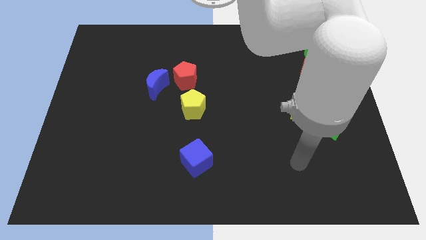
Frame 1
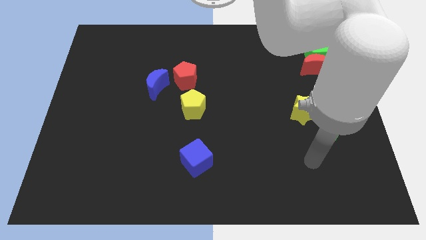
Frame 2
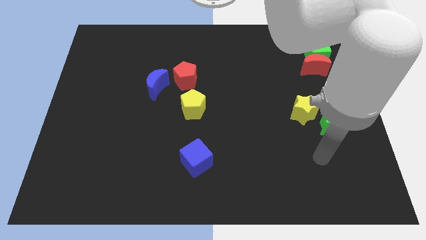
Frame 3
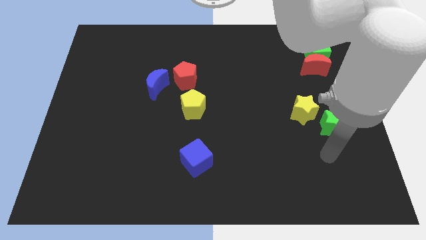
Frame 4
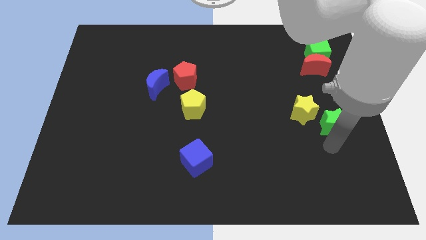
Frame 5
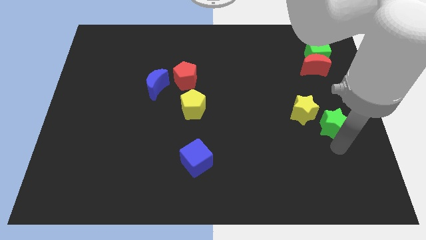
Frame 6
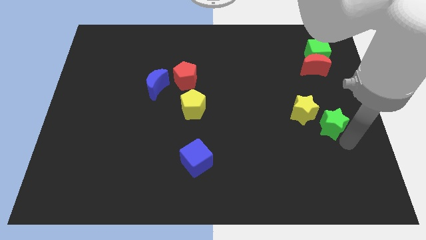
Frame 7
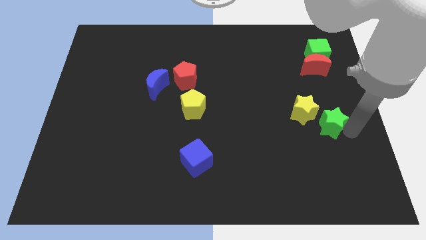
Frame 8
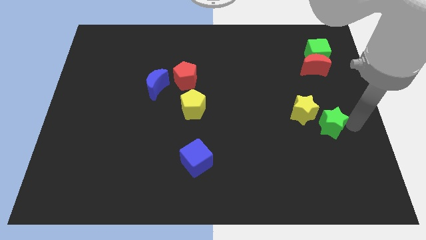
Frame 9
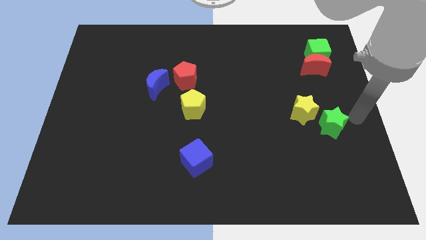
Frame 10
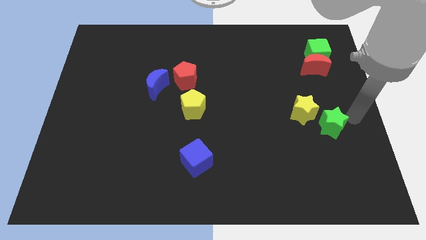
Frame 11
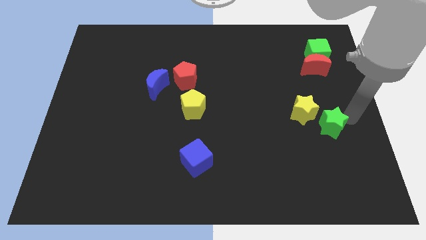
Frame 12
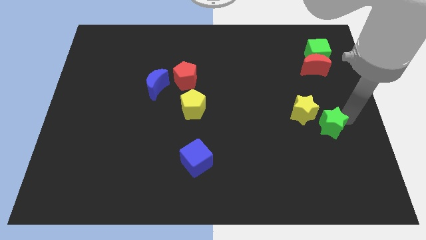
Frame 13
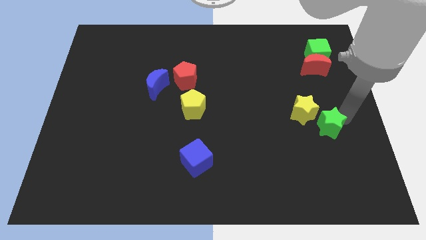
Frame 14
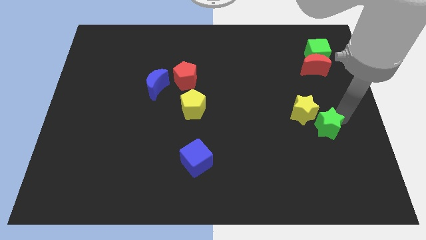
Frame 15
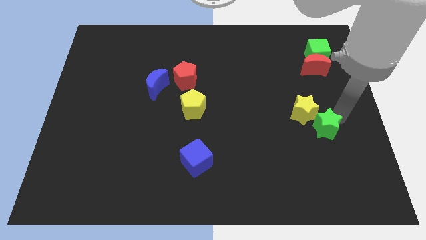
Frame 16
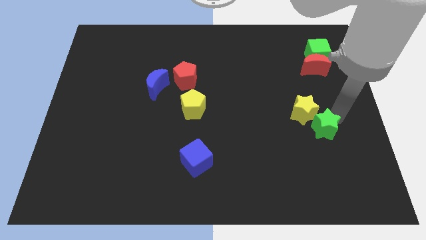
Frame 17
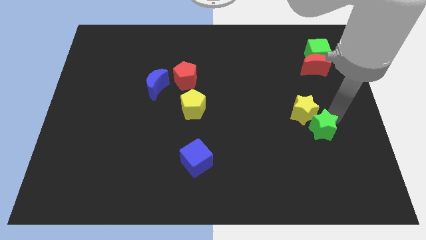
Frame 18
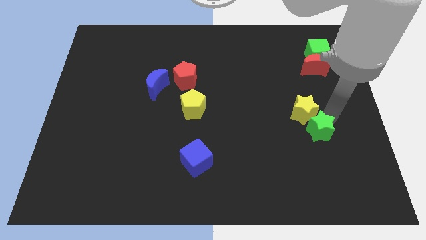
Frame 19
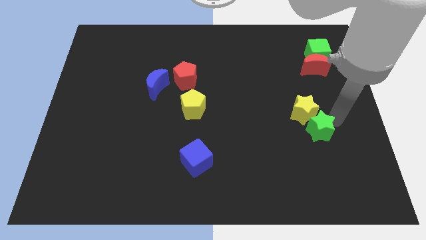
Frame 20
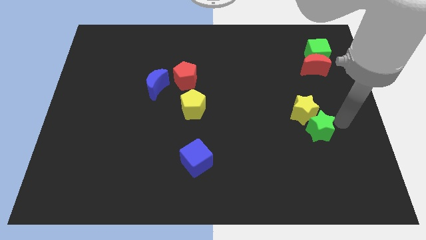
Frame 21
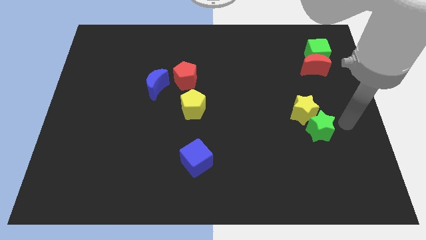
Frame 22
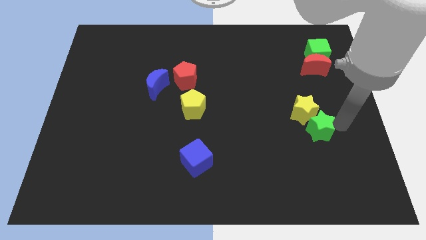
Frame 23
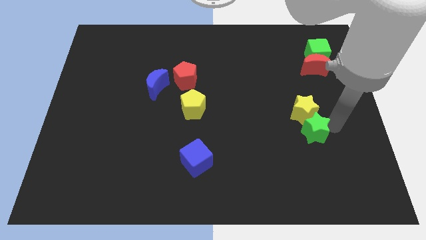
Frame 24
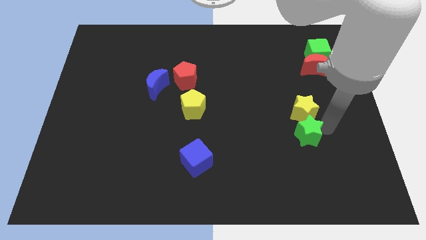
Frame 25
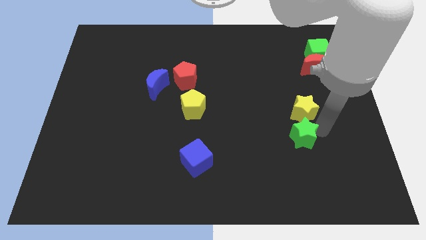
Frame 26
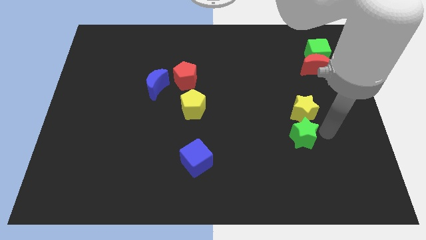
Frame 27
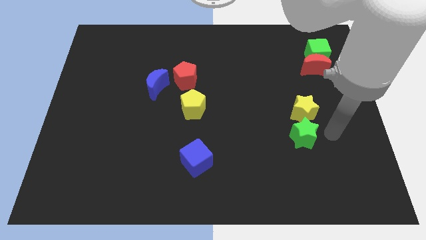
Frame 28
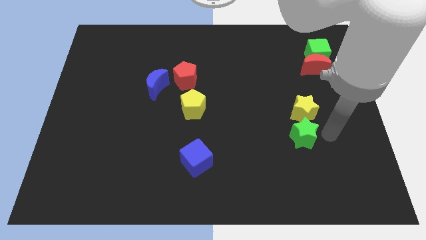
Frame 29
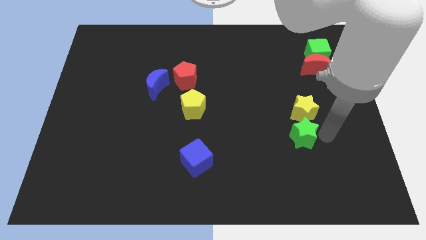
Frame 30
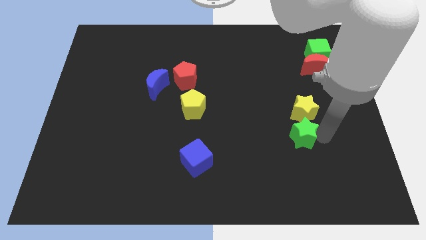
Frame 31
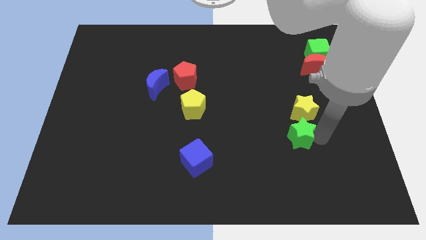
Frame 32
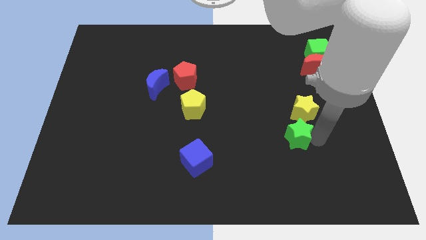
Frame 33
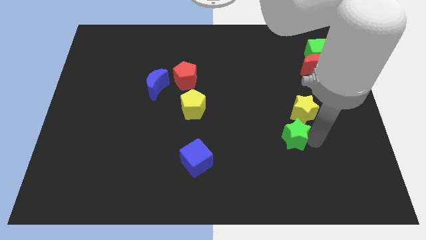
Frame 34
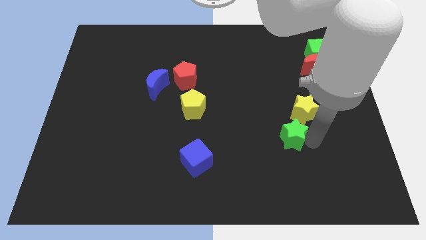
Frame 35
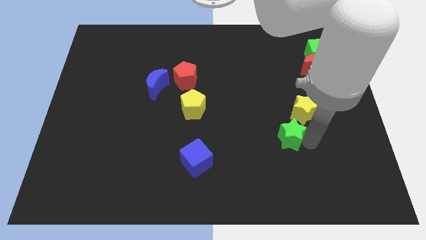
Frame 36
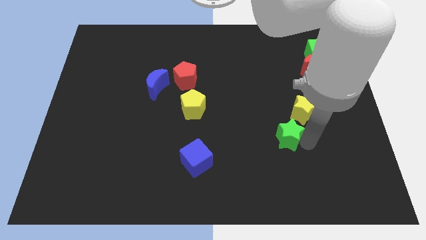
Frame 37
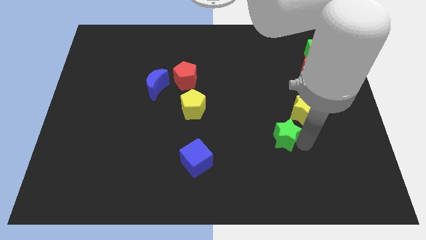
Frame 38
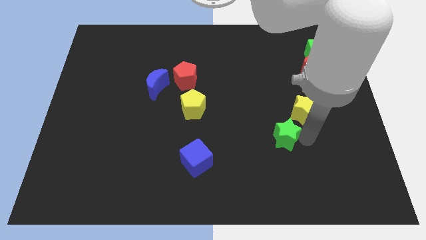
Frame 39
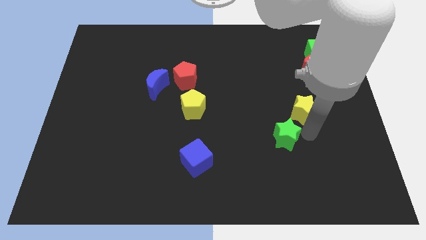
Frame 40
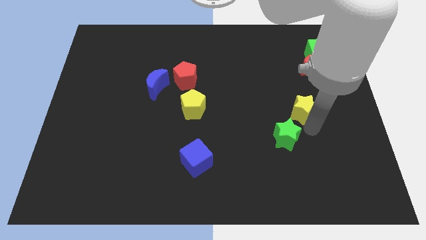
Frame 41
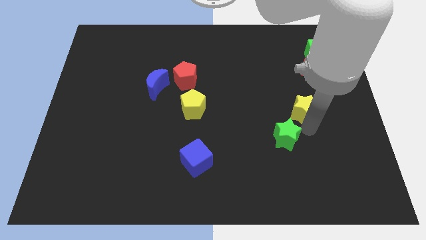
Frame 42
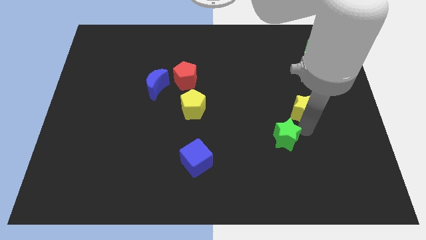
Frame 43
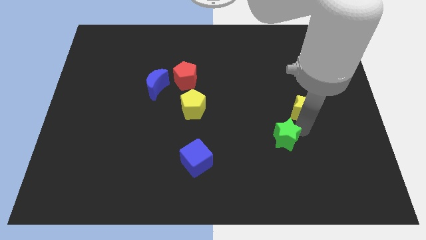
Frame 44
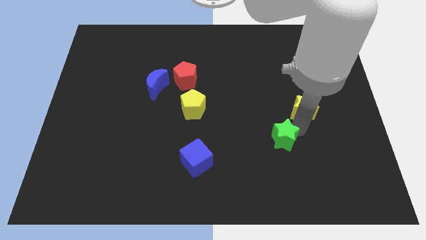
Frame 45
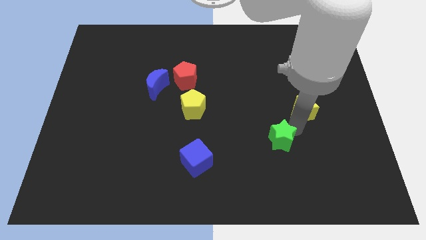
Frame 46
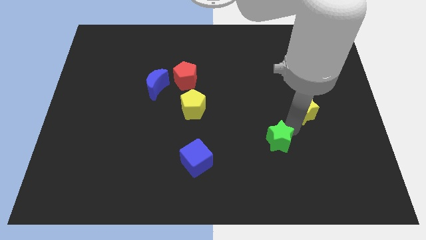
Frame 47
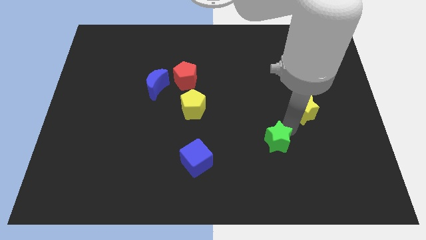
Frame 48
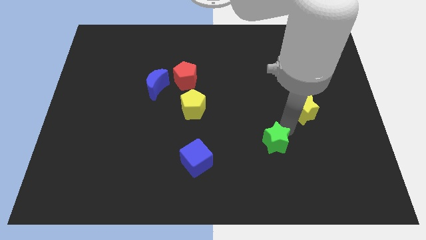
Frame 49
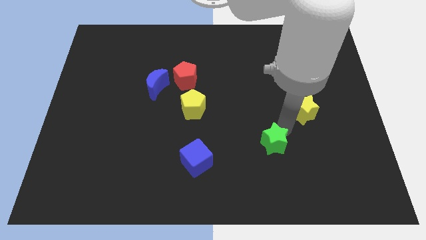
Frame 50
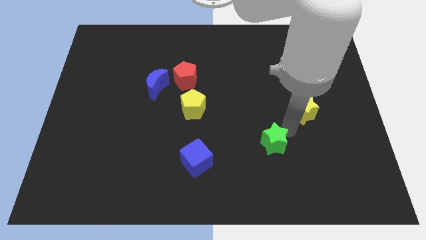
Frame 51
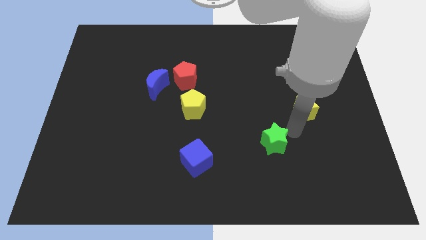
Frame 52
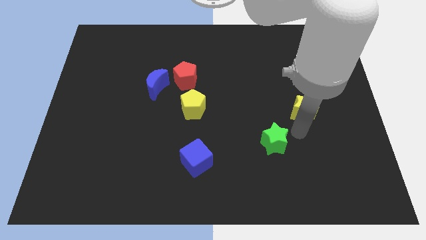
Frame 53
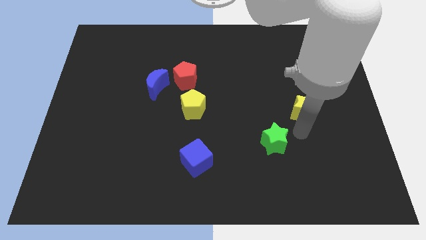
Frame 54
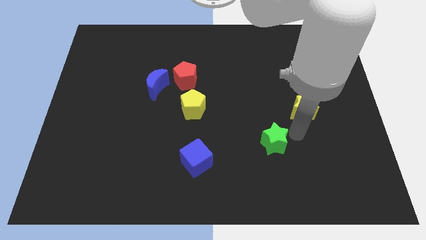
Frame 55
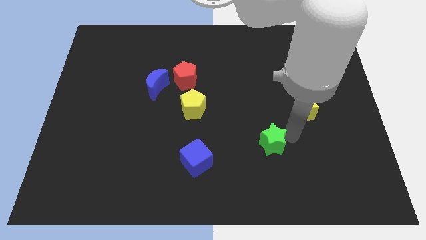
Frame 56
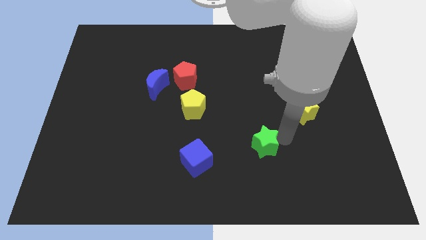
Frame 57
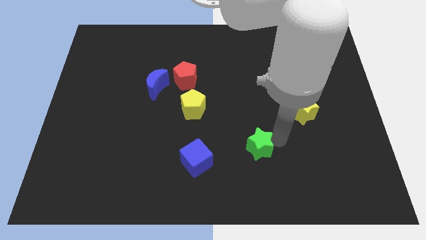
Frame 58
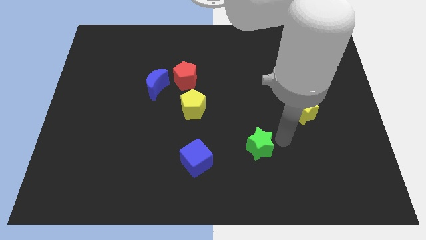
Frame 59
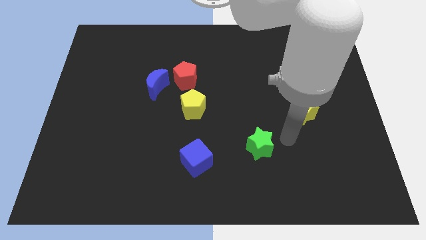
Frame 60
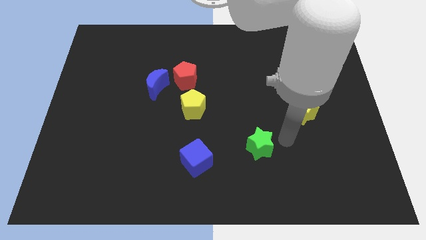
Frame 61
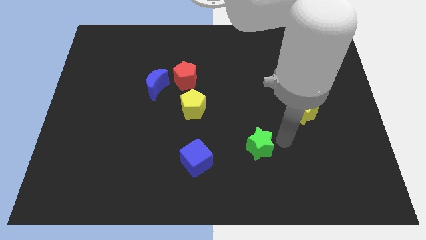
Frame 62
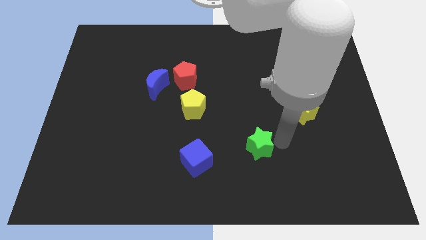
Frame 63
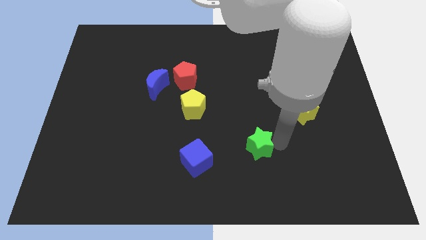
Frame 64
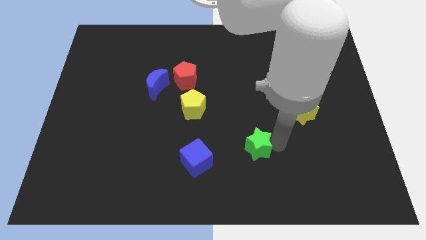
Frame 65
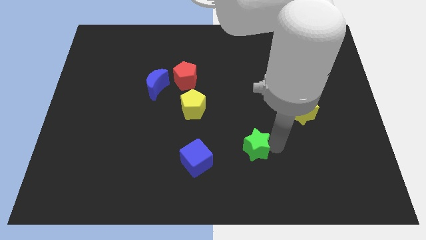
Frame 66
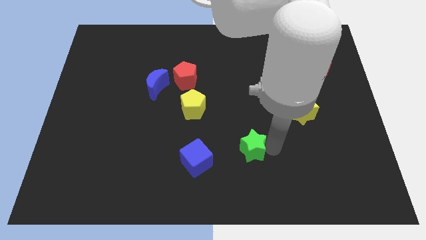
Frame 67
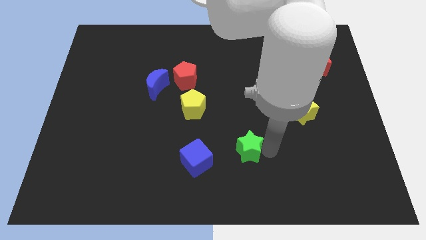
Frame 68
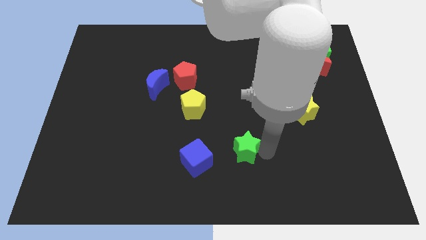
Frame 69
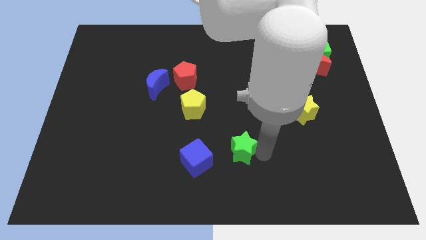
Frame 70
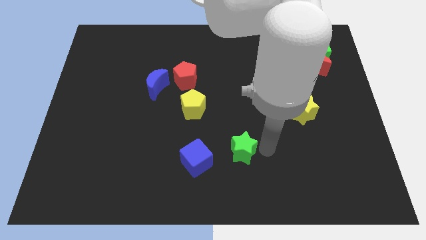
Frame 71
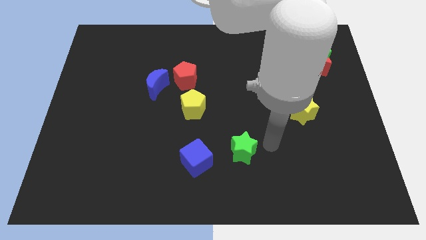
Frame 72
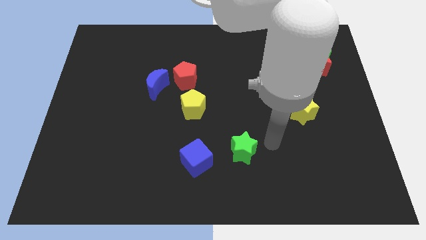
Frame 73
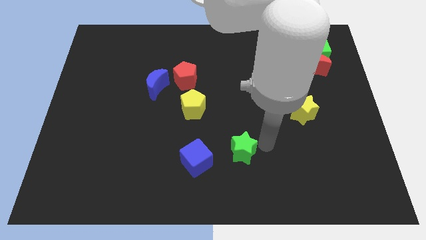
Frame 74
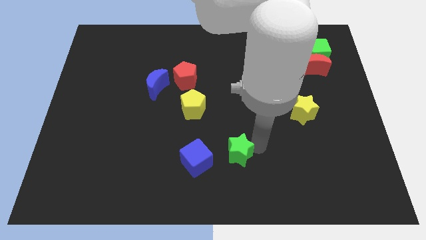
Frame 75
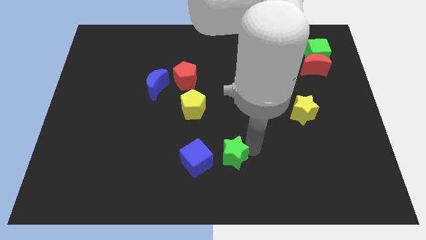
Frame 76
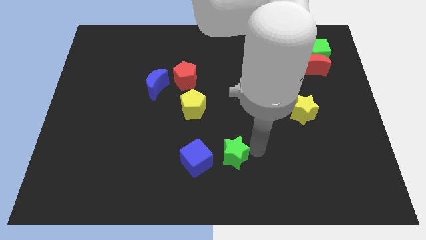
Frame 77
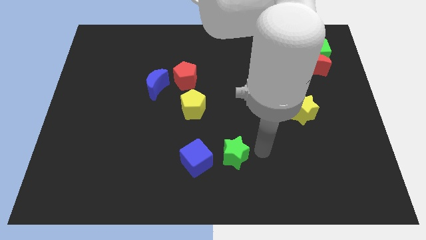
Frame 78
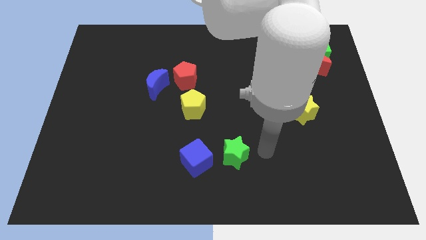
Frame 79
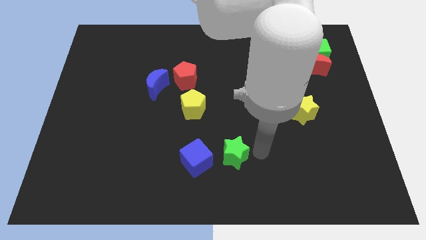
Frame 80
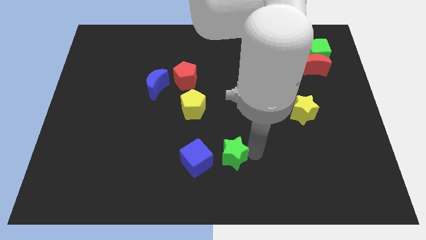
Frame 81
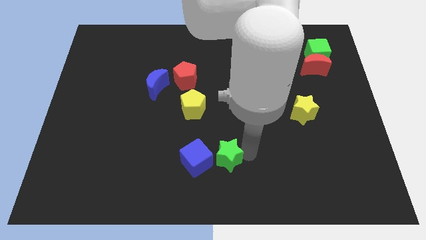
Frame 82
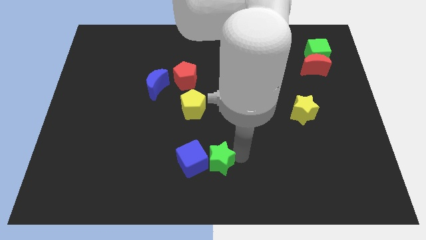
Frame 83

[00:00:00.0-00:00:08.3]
move the green star towards the blue cube
